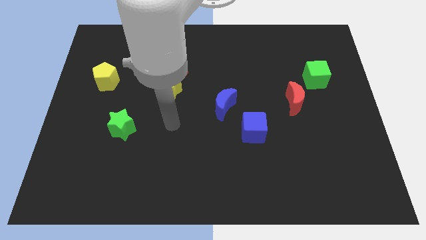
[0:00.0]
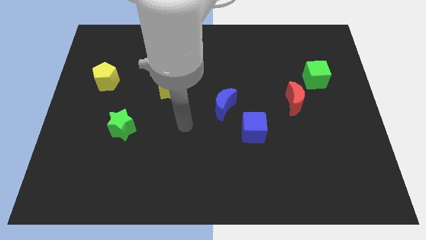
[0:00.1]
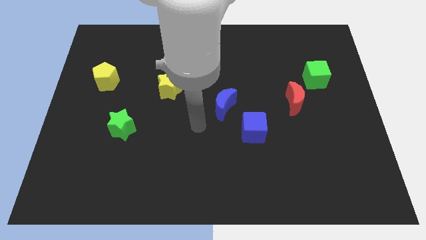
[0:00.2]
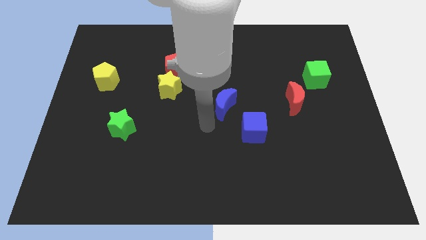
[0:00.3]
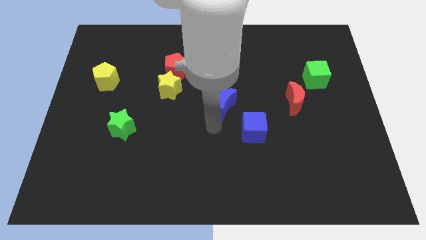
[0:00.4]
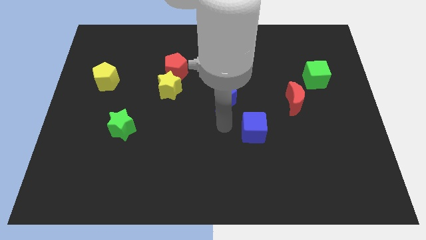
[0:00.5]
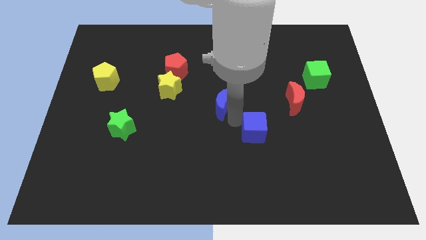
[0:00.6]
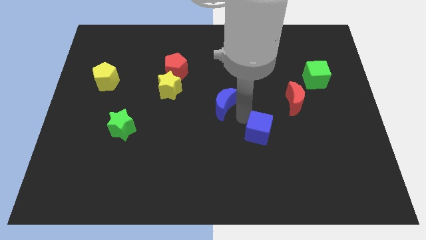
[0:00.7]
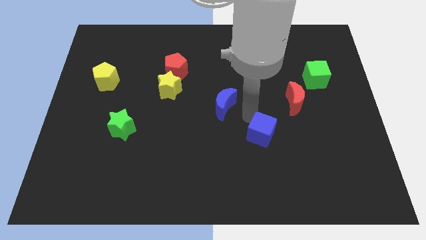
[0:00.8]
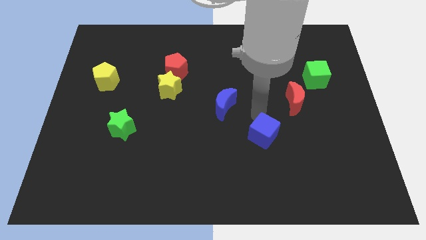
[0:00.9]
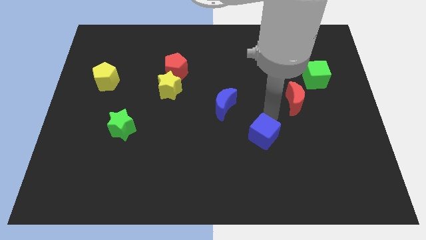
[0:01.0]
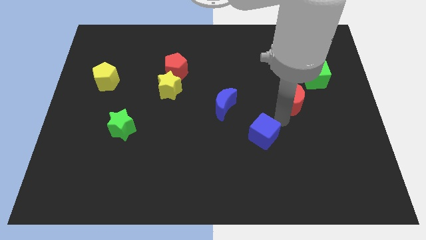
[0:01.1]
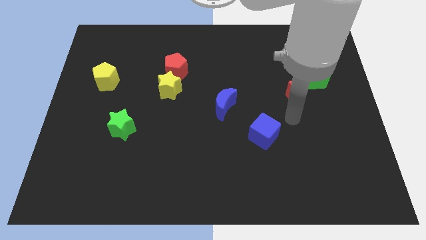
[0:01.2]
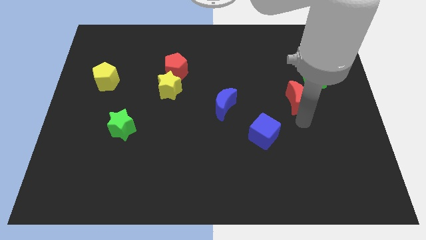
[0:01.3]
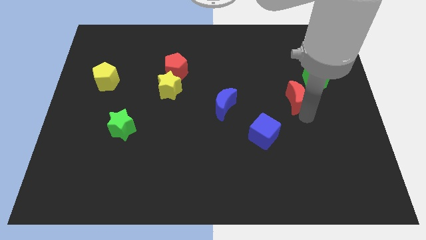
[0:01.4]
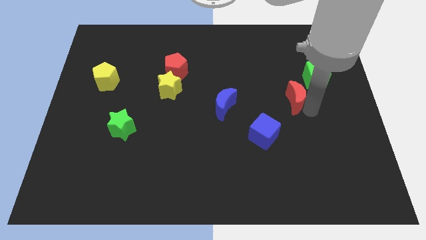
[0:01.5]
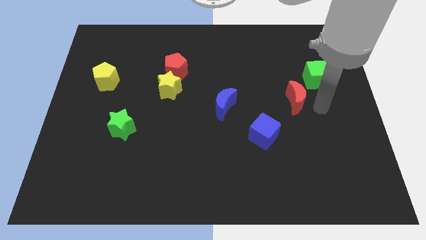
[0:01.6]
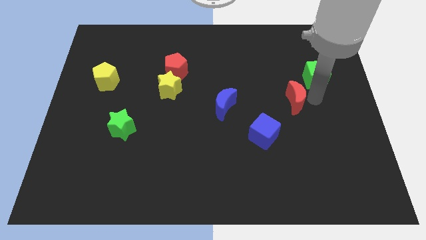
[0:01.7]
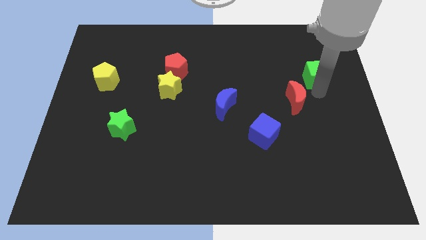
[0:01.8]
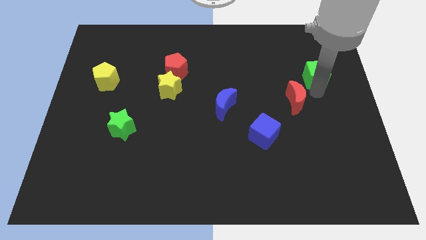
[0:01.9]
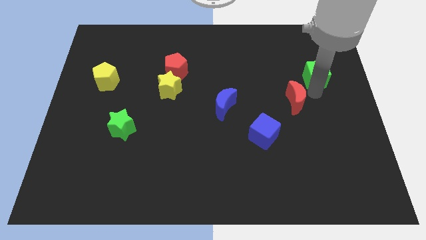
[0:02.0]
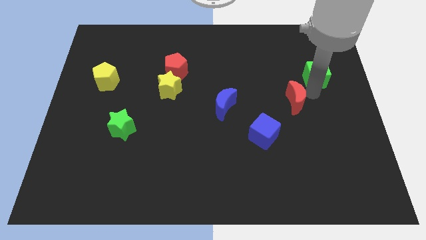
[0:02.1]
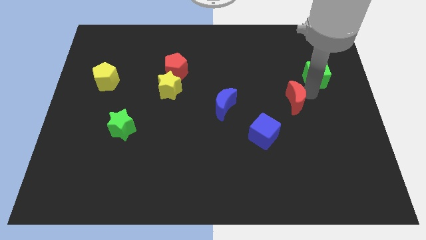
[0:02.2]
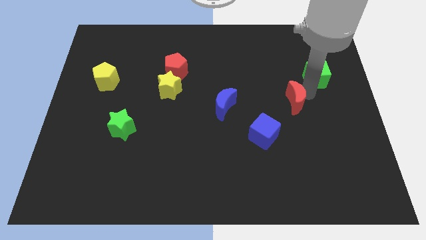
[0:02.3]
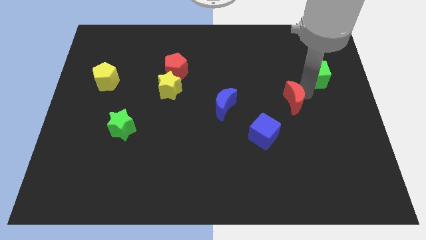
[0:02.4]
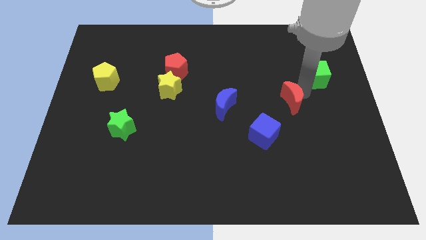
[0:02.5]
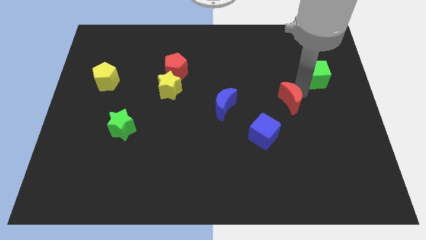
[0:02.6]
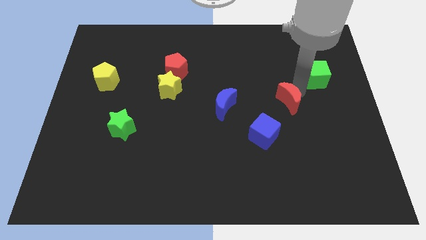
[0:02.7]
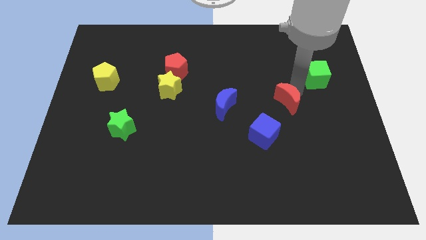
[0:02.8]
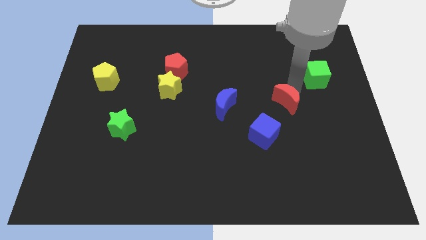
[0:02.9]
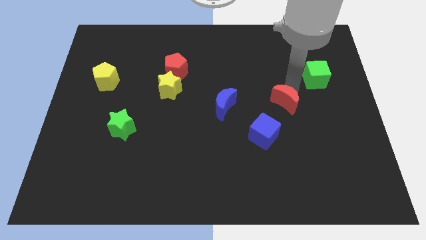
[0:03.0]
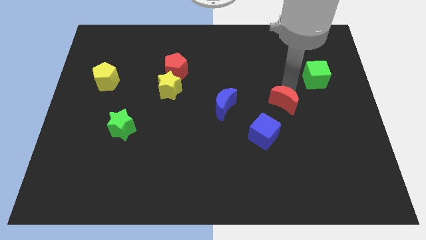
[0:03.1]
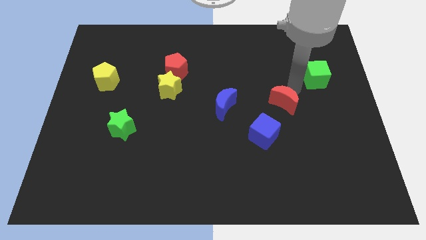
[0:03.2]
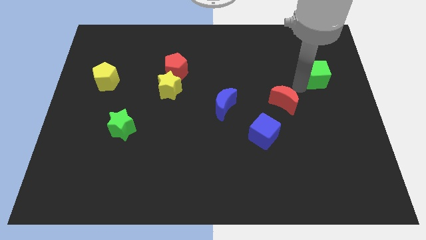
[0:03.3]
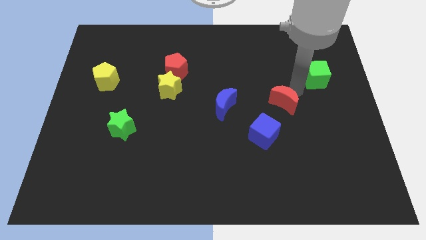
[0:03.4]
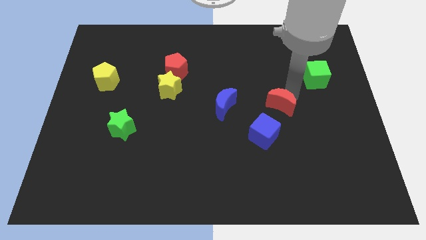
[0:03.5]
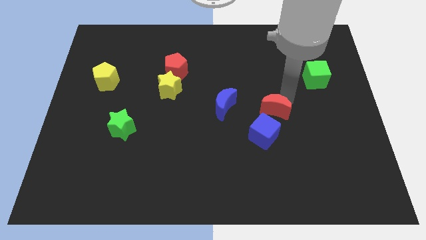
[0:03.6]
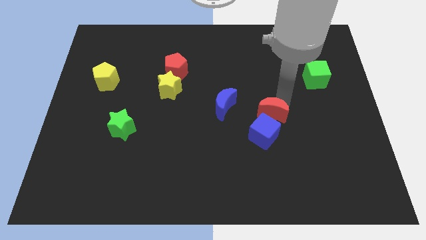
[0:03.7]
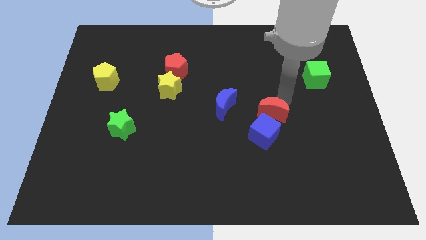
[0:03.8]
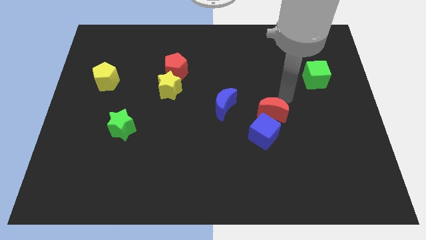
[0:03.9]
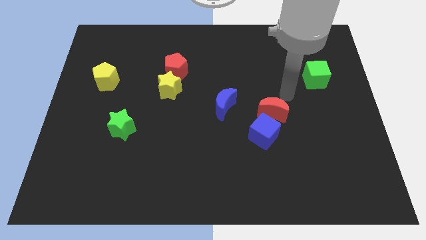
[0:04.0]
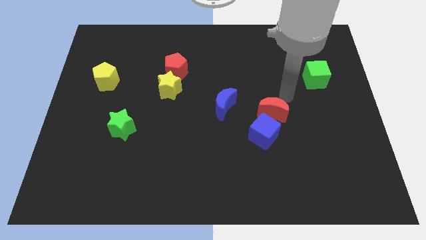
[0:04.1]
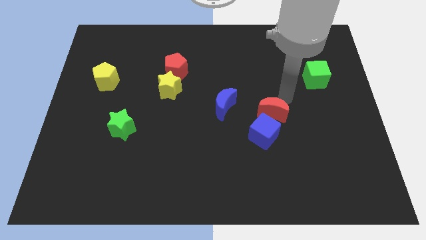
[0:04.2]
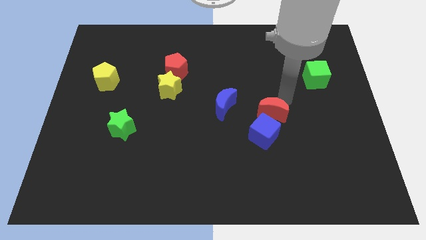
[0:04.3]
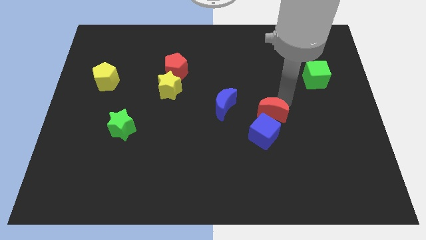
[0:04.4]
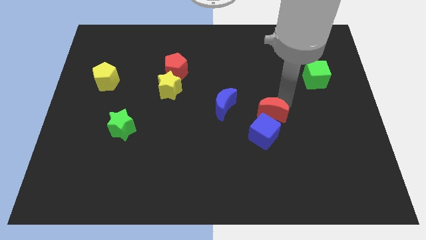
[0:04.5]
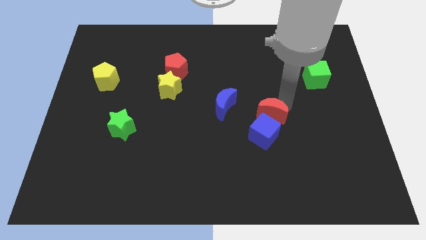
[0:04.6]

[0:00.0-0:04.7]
push the red moon to the blue cube

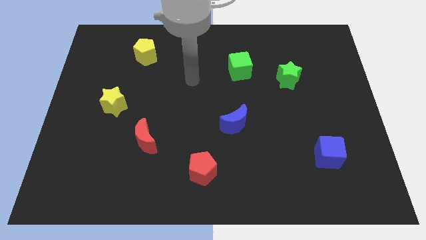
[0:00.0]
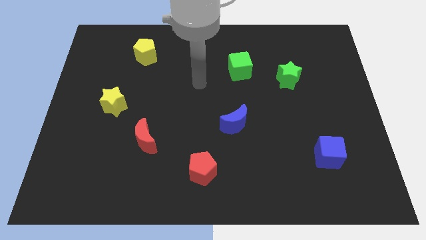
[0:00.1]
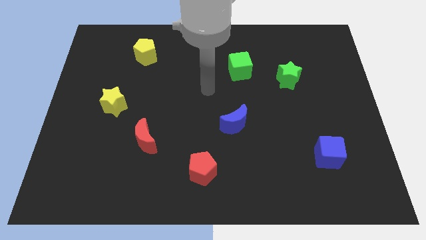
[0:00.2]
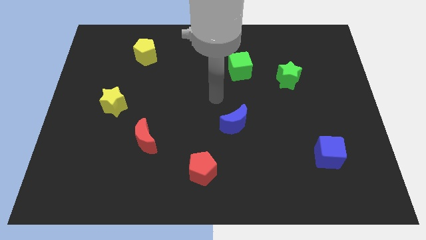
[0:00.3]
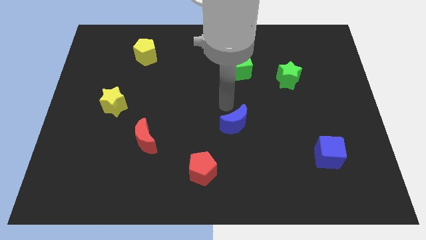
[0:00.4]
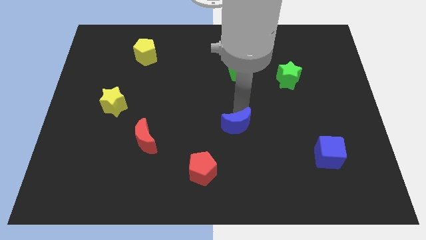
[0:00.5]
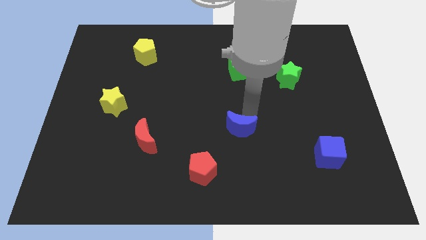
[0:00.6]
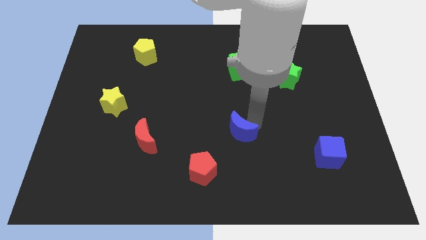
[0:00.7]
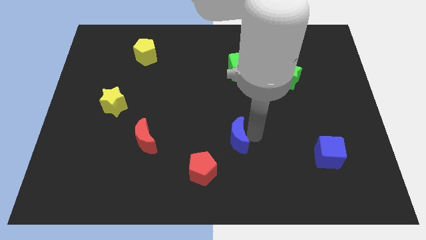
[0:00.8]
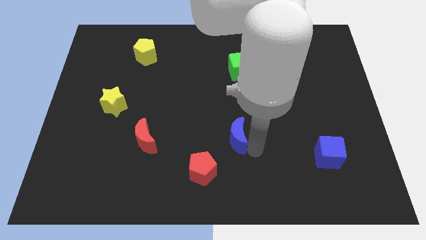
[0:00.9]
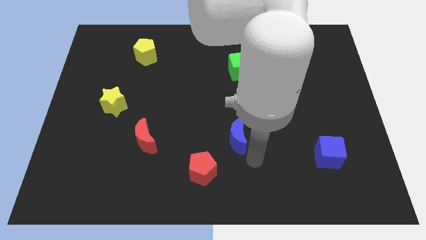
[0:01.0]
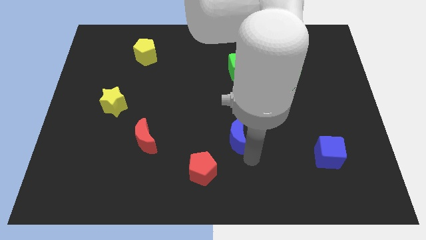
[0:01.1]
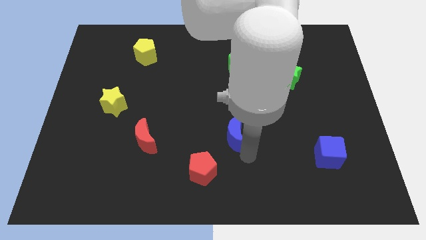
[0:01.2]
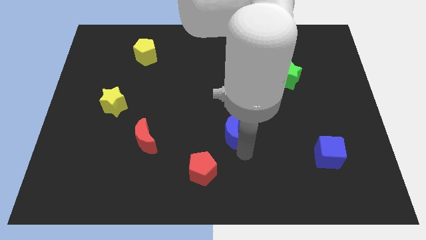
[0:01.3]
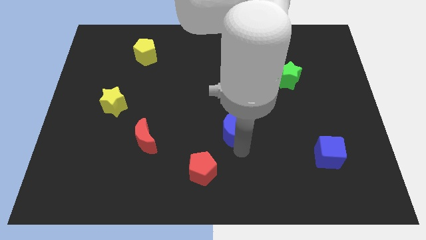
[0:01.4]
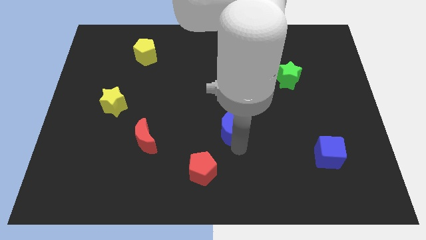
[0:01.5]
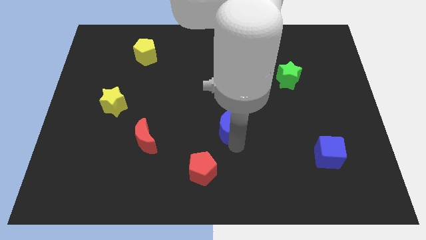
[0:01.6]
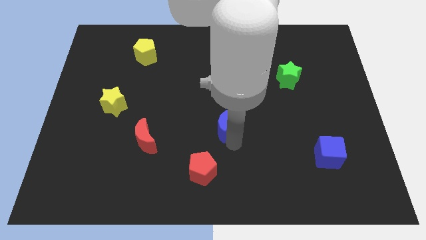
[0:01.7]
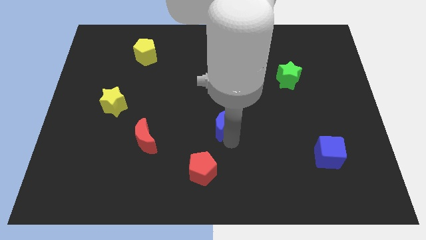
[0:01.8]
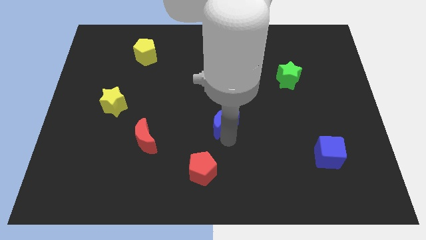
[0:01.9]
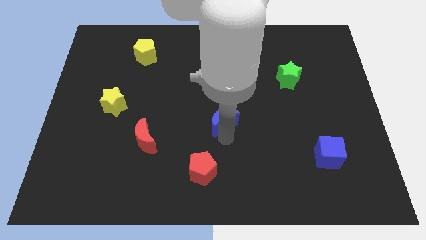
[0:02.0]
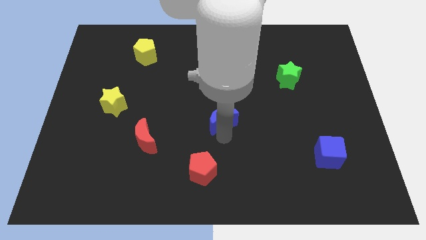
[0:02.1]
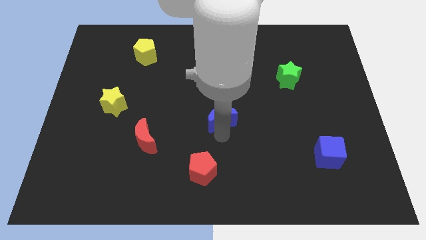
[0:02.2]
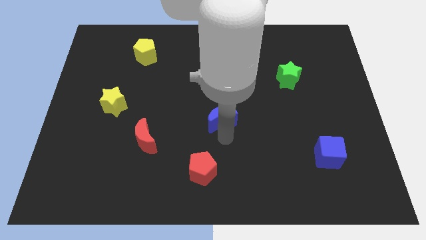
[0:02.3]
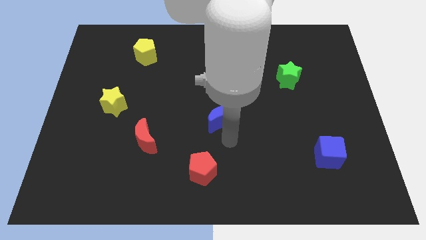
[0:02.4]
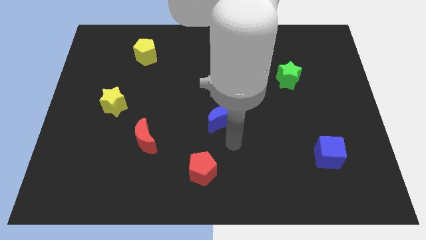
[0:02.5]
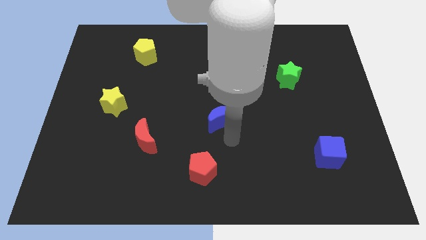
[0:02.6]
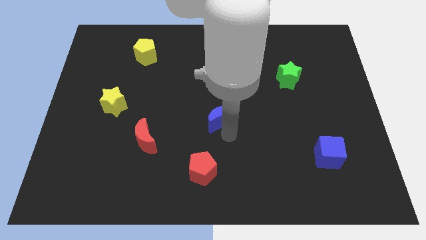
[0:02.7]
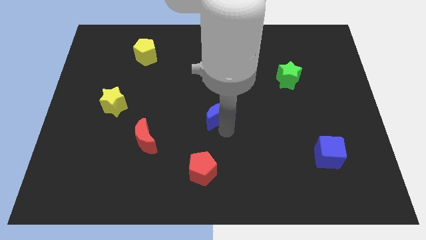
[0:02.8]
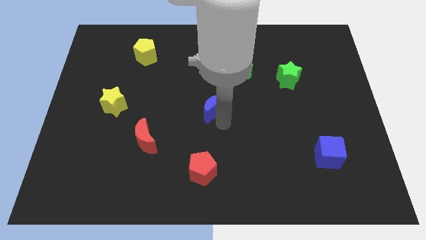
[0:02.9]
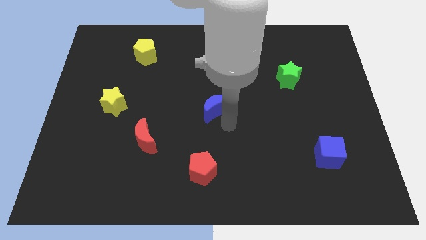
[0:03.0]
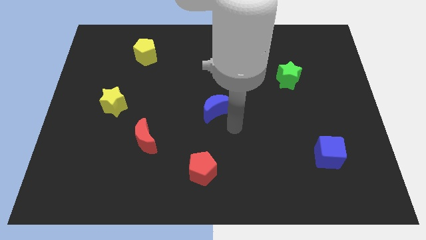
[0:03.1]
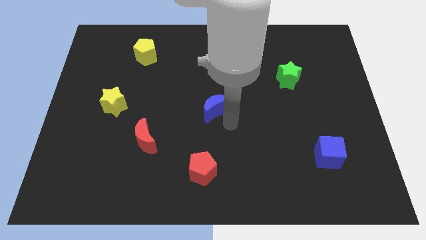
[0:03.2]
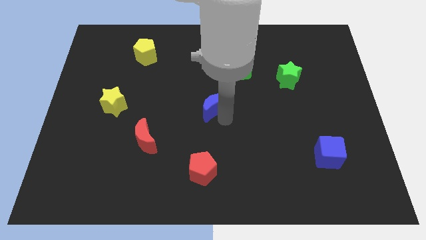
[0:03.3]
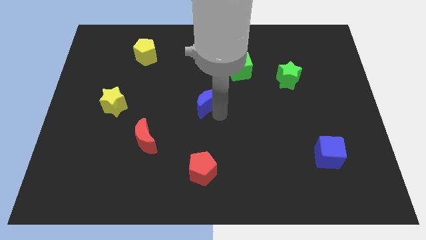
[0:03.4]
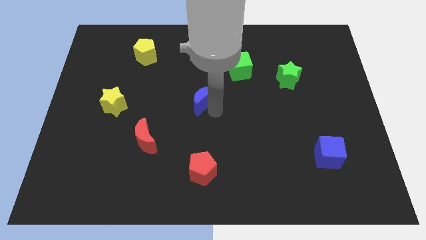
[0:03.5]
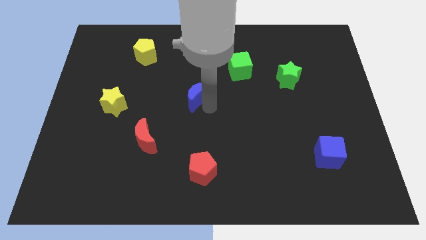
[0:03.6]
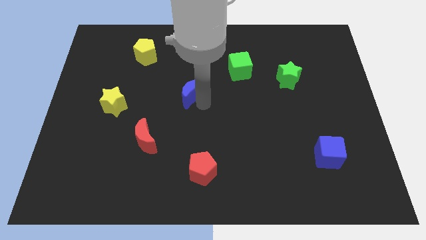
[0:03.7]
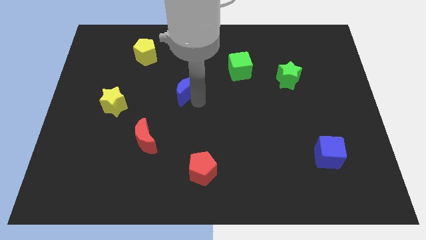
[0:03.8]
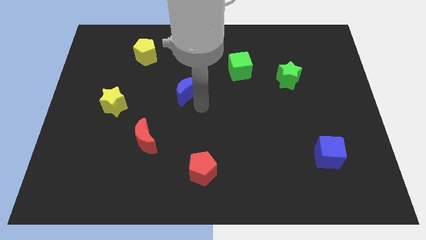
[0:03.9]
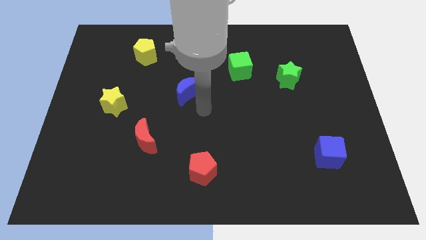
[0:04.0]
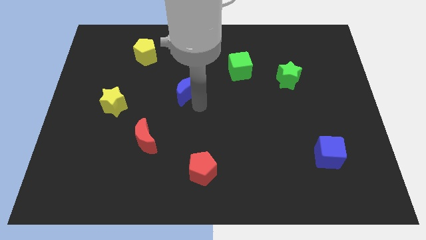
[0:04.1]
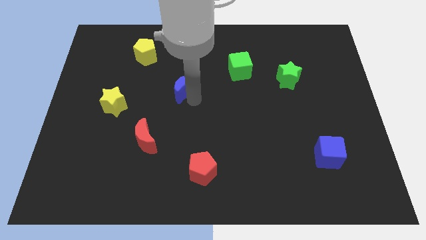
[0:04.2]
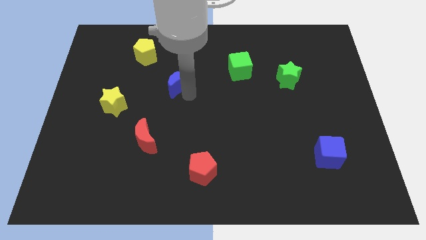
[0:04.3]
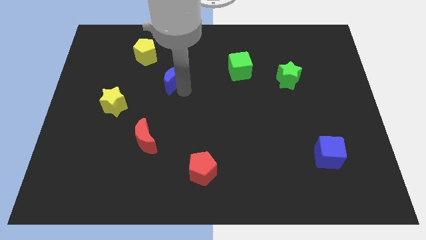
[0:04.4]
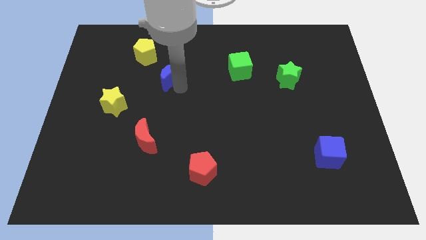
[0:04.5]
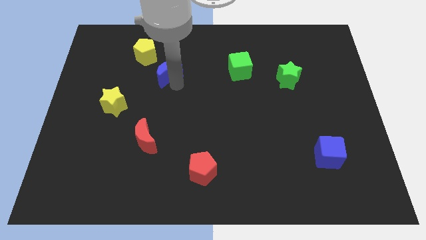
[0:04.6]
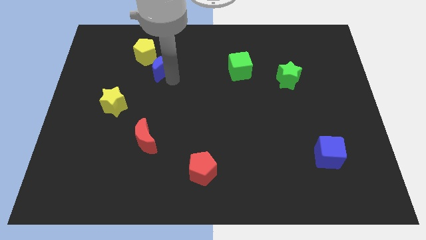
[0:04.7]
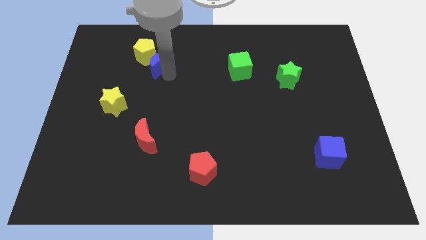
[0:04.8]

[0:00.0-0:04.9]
move the blue moon close to the yellow pentagon
